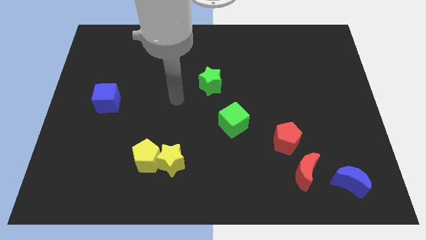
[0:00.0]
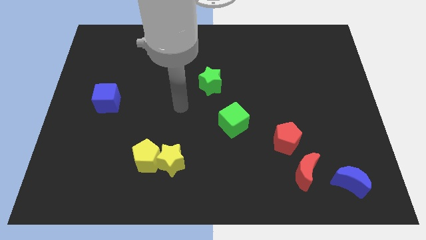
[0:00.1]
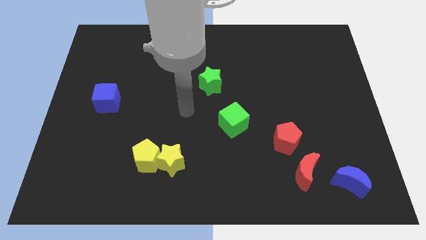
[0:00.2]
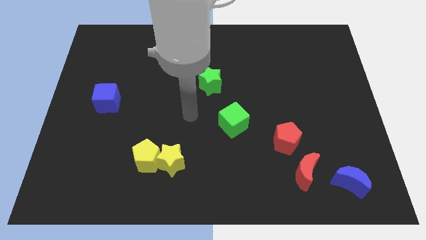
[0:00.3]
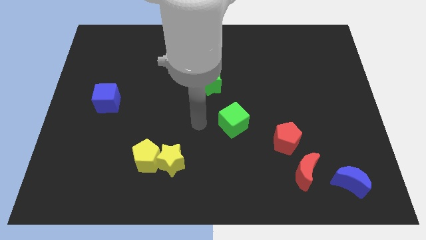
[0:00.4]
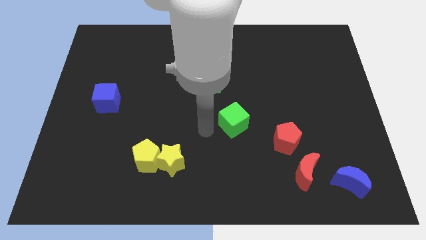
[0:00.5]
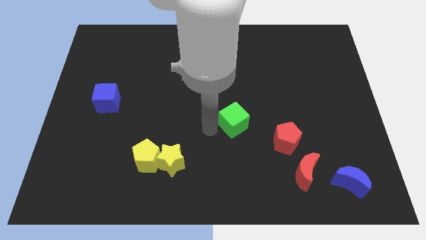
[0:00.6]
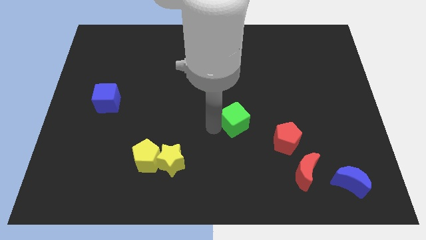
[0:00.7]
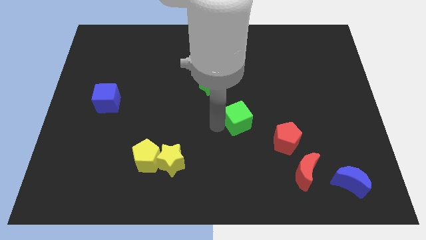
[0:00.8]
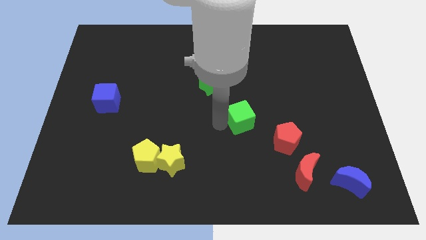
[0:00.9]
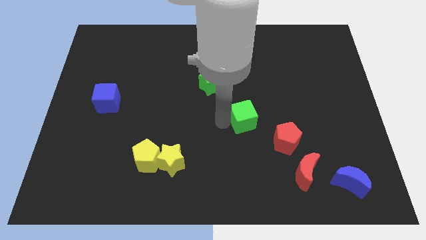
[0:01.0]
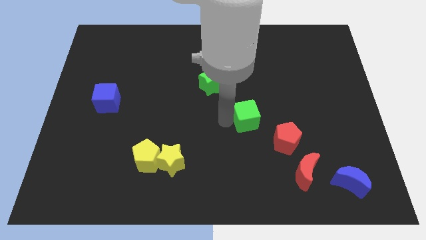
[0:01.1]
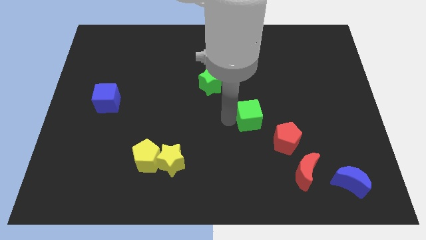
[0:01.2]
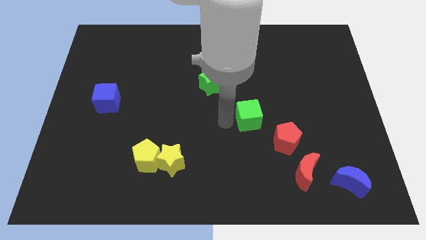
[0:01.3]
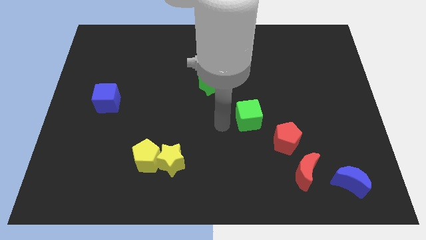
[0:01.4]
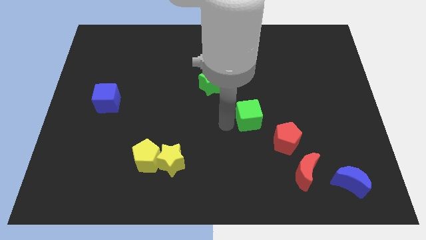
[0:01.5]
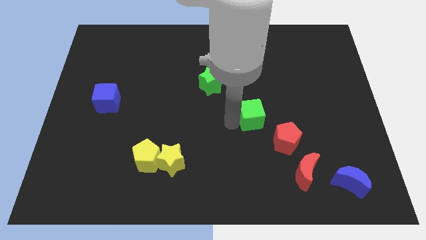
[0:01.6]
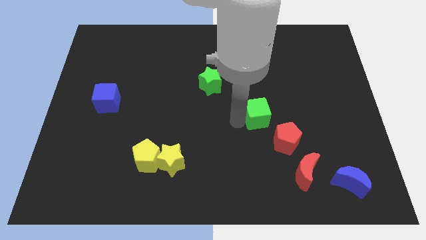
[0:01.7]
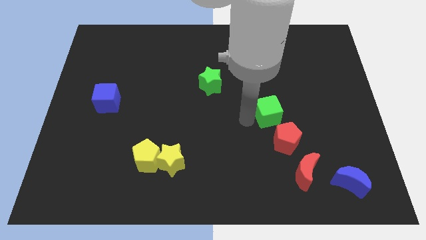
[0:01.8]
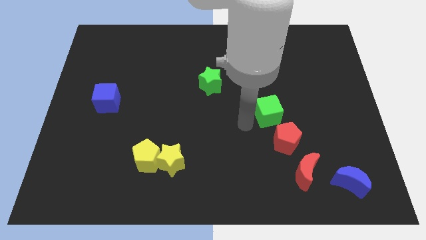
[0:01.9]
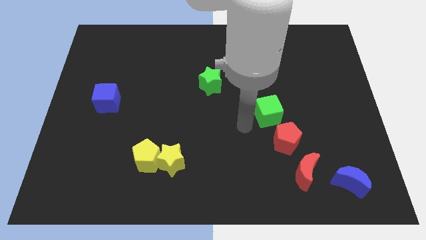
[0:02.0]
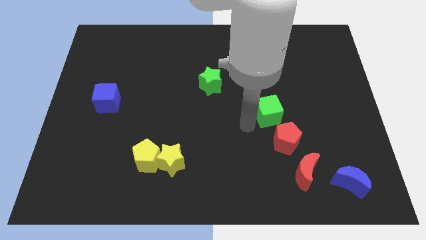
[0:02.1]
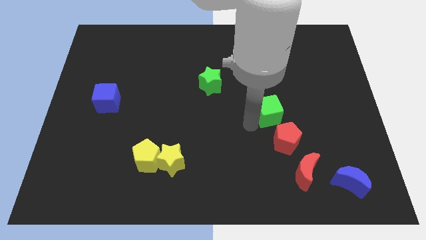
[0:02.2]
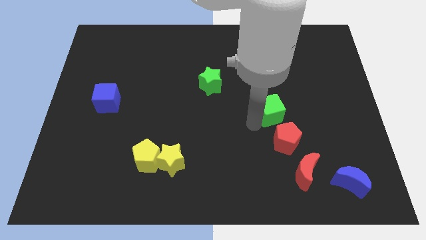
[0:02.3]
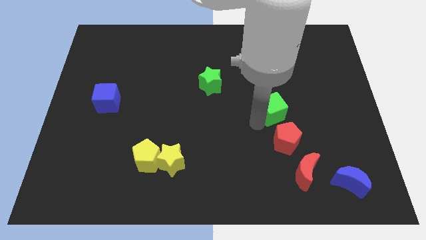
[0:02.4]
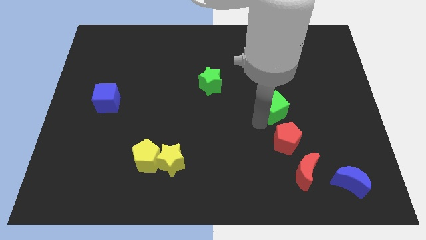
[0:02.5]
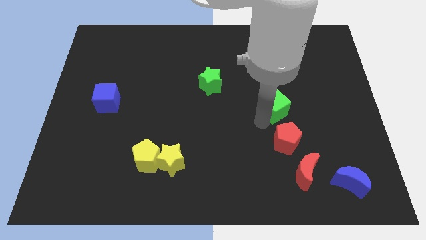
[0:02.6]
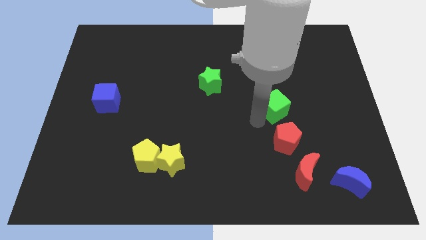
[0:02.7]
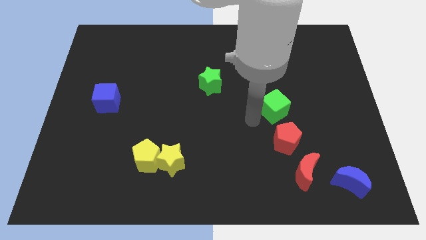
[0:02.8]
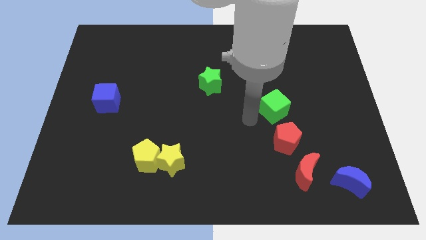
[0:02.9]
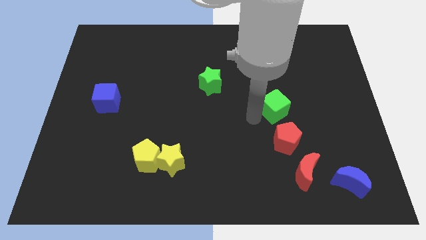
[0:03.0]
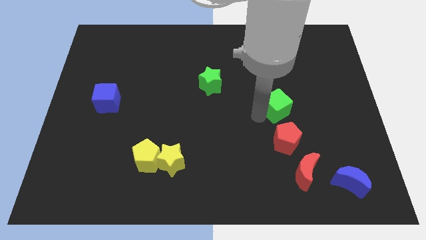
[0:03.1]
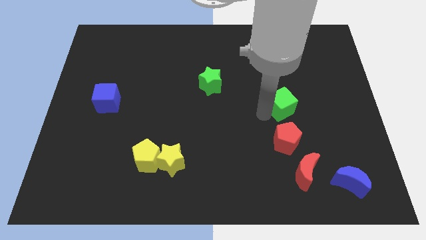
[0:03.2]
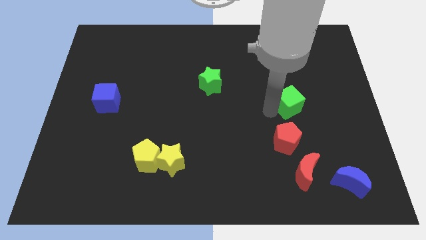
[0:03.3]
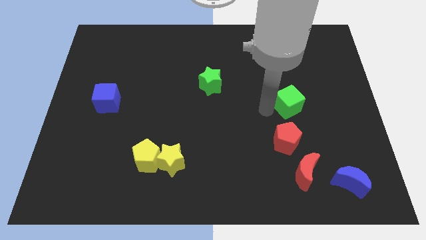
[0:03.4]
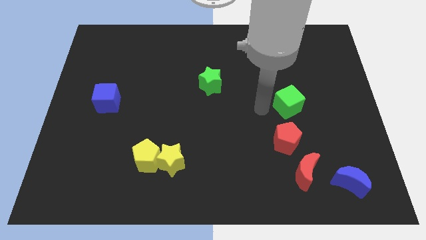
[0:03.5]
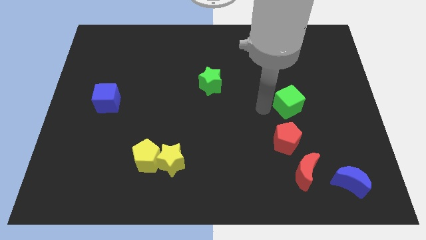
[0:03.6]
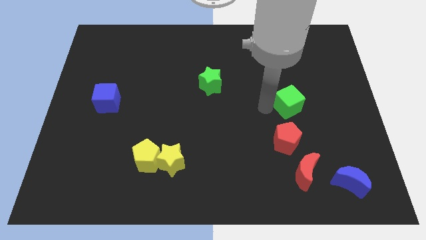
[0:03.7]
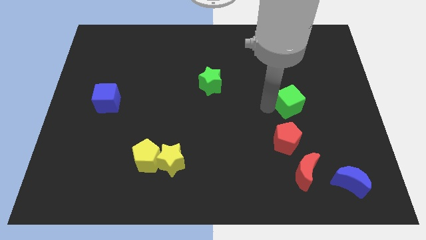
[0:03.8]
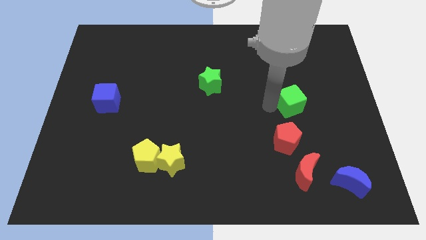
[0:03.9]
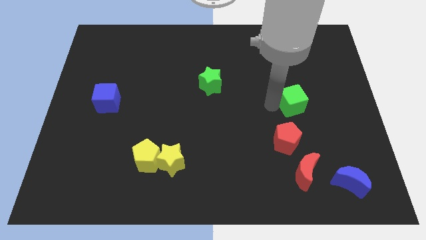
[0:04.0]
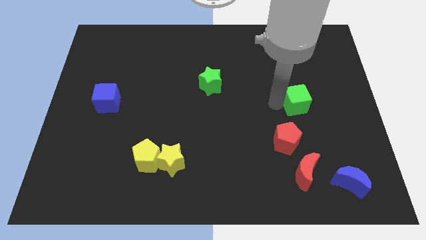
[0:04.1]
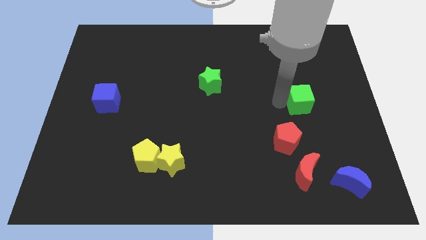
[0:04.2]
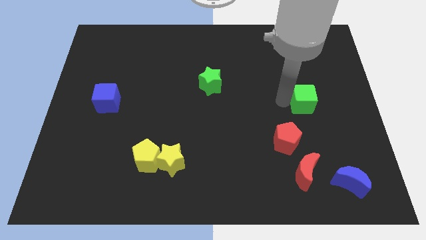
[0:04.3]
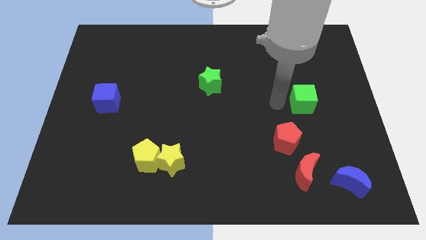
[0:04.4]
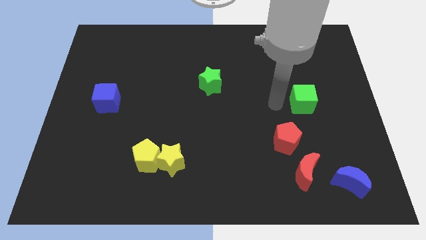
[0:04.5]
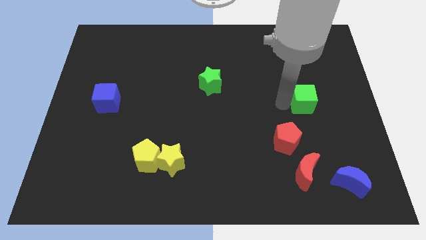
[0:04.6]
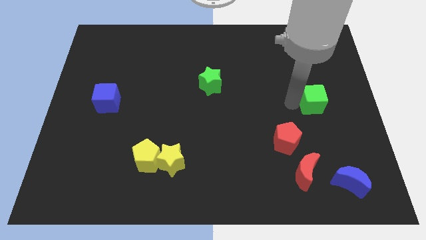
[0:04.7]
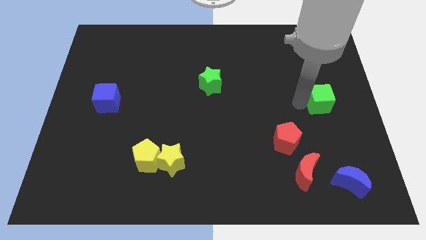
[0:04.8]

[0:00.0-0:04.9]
put the green cube to the center right

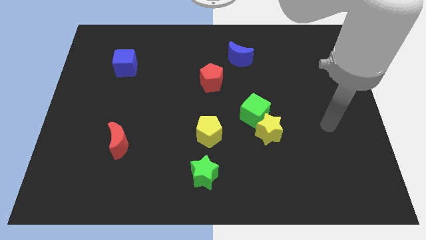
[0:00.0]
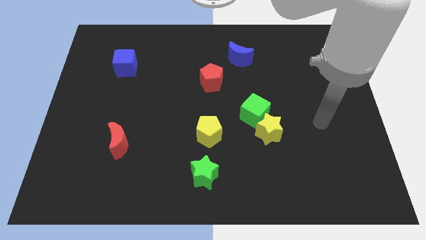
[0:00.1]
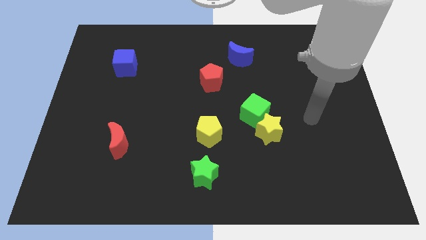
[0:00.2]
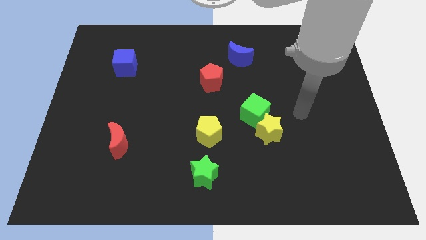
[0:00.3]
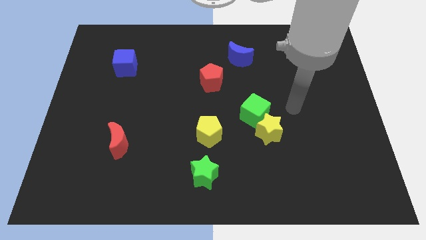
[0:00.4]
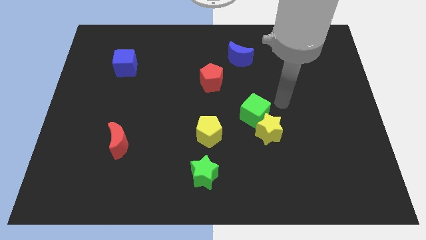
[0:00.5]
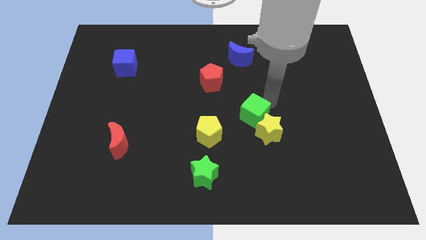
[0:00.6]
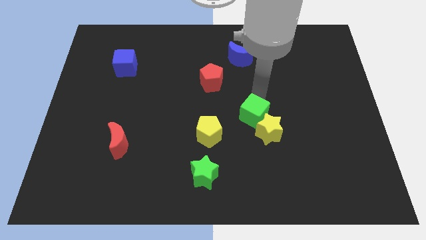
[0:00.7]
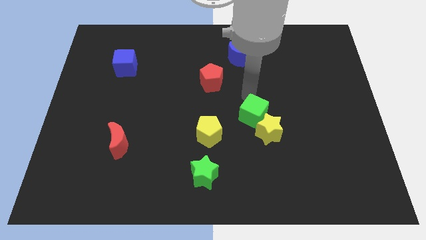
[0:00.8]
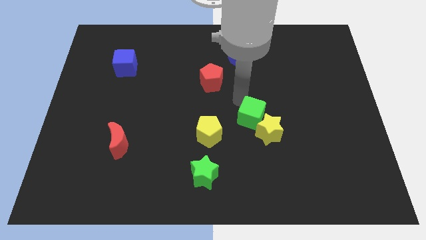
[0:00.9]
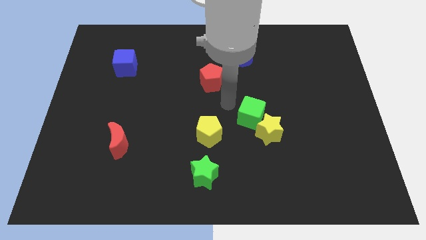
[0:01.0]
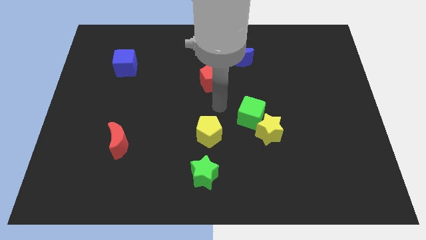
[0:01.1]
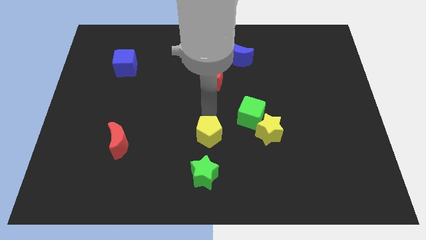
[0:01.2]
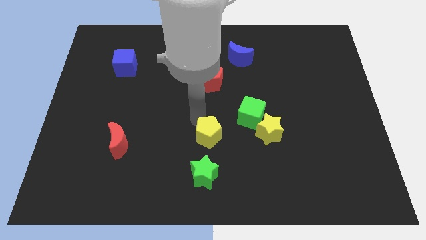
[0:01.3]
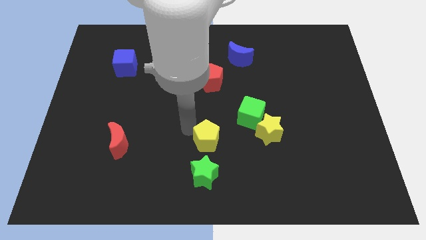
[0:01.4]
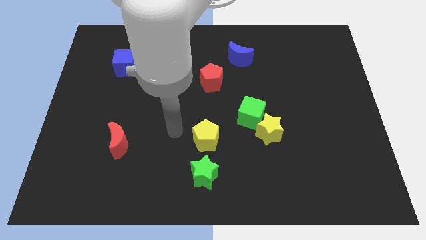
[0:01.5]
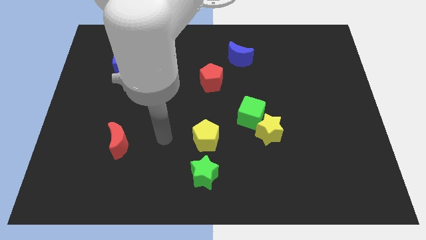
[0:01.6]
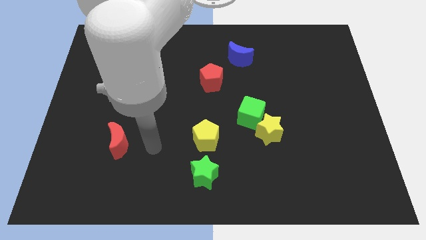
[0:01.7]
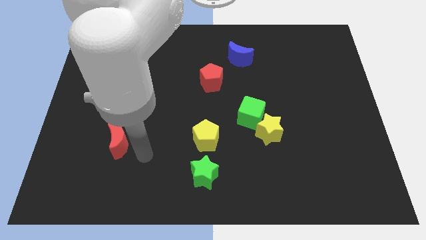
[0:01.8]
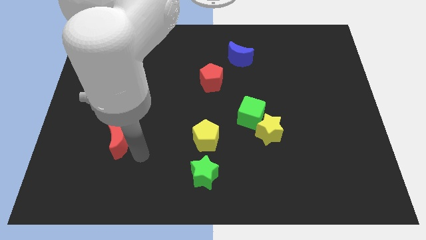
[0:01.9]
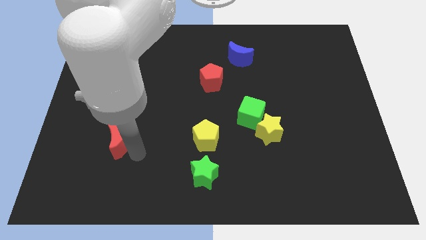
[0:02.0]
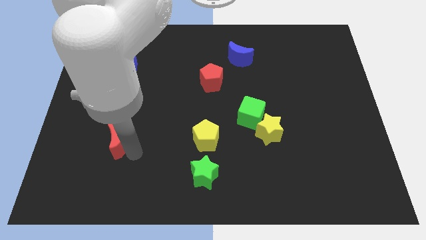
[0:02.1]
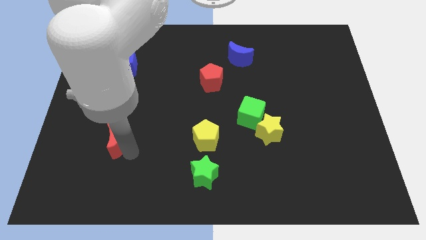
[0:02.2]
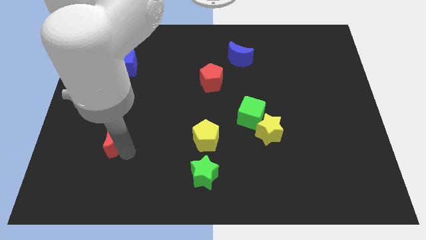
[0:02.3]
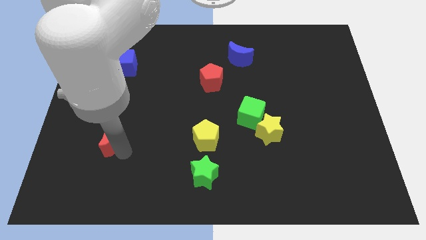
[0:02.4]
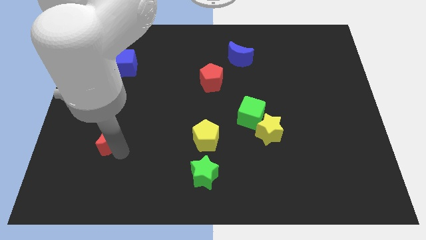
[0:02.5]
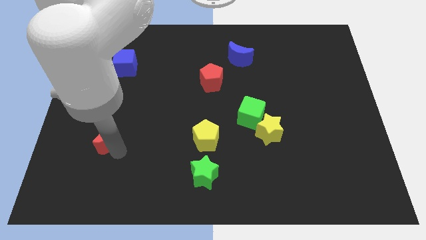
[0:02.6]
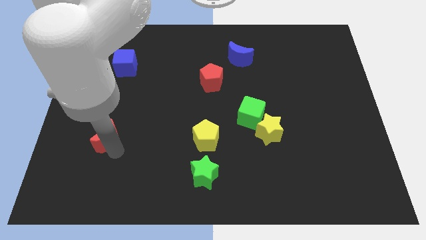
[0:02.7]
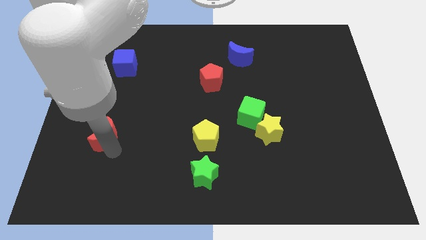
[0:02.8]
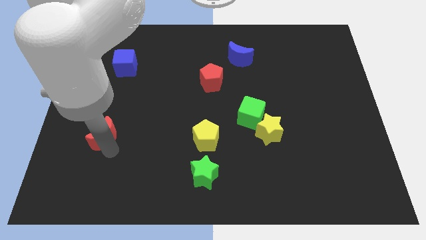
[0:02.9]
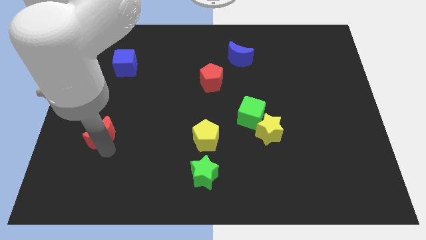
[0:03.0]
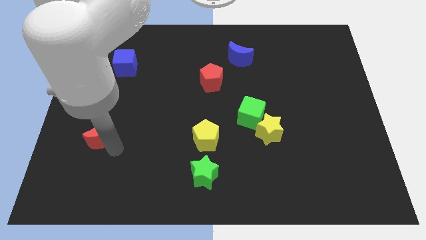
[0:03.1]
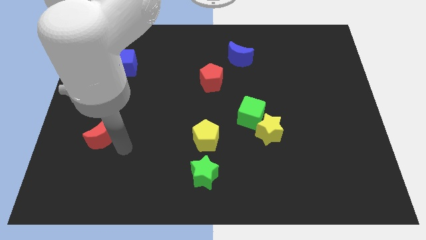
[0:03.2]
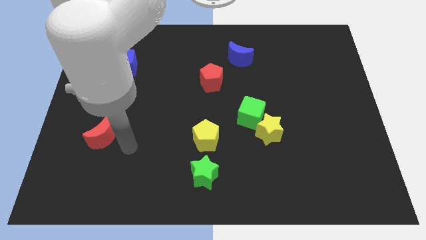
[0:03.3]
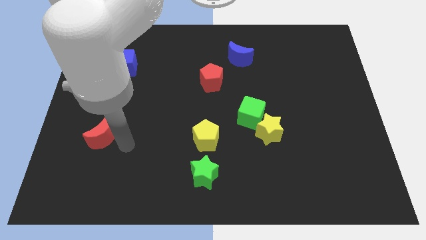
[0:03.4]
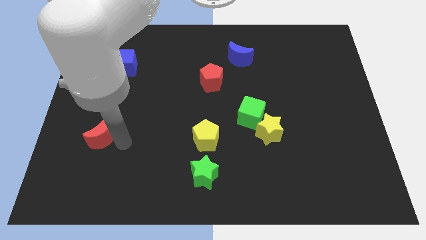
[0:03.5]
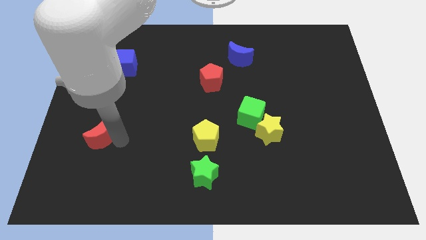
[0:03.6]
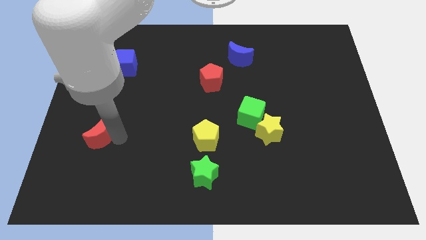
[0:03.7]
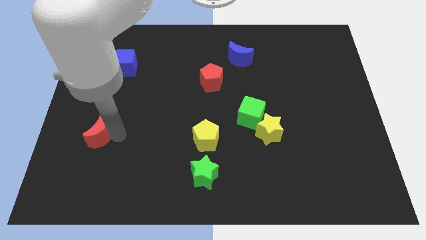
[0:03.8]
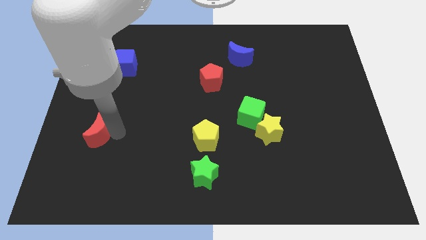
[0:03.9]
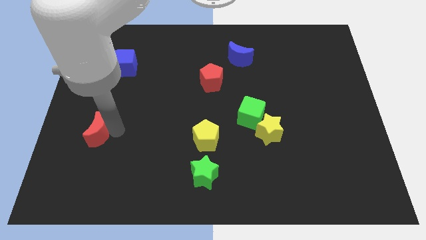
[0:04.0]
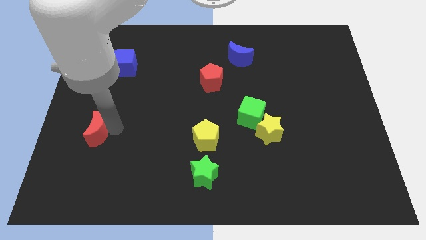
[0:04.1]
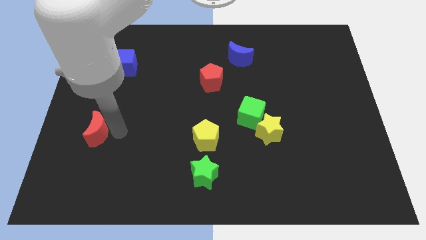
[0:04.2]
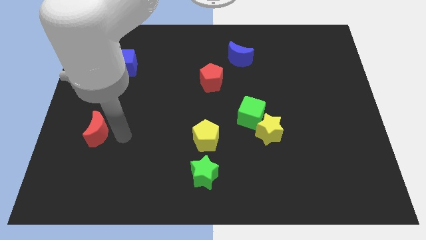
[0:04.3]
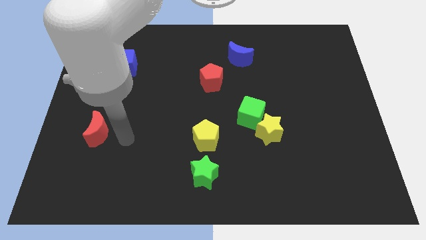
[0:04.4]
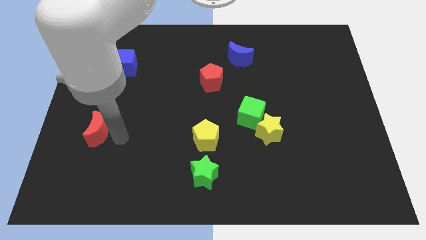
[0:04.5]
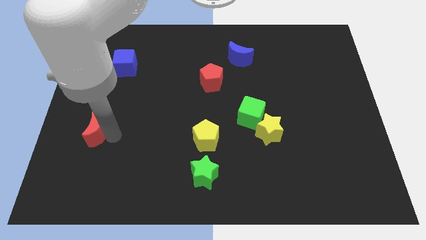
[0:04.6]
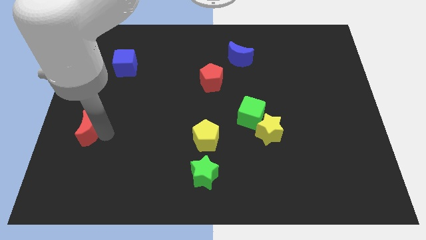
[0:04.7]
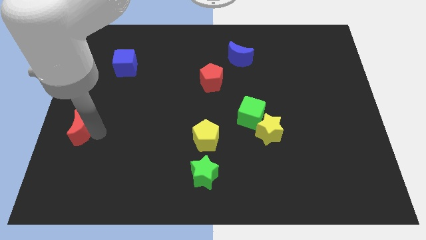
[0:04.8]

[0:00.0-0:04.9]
move the red moon to the left side
